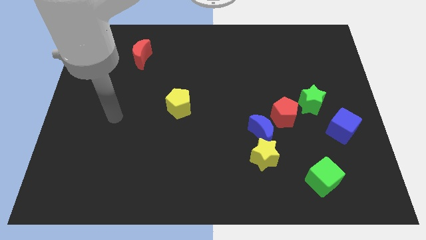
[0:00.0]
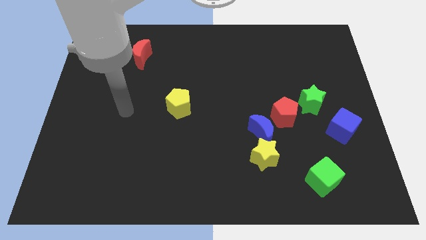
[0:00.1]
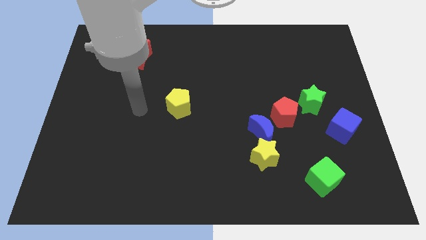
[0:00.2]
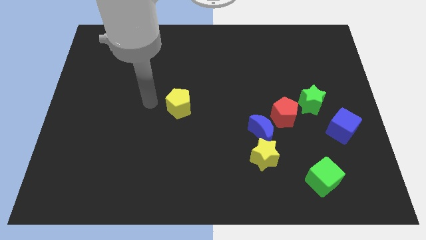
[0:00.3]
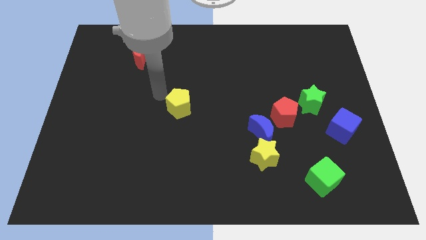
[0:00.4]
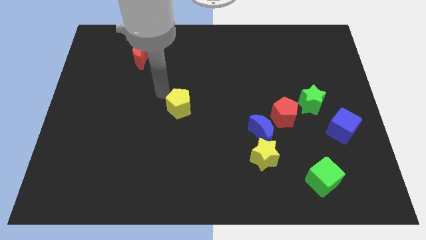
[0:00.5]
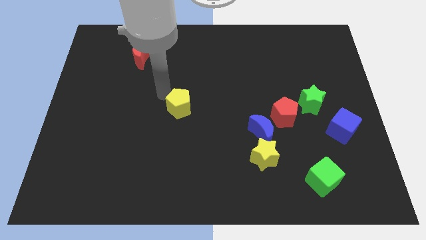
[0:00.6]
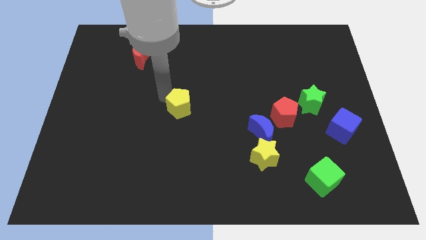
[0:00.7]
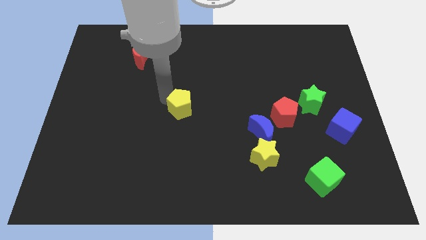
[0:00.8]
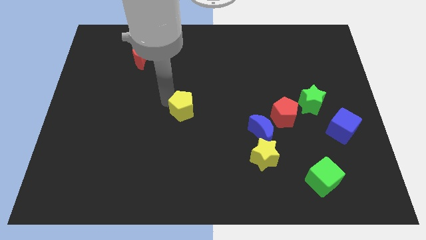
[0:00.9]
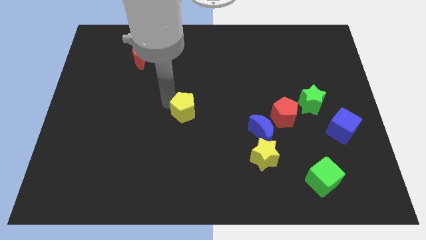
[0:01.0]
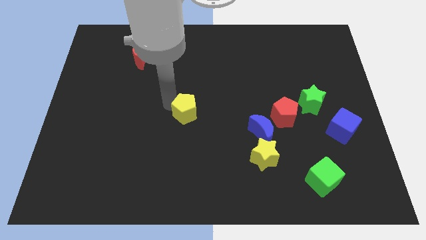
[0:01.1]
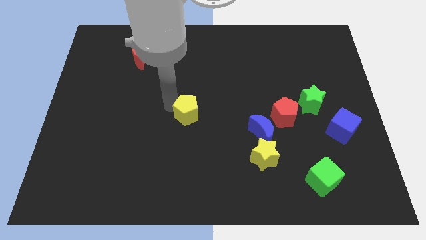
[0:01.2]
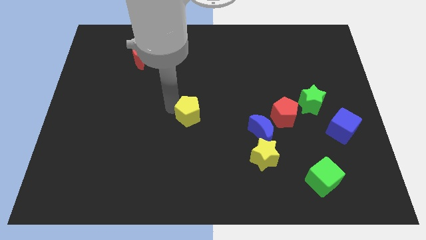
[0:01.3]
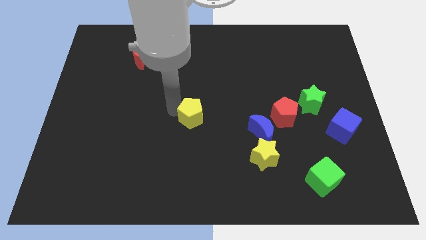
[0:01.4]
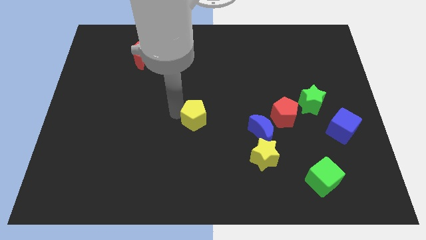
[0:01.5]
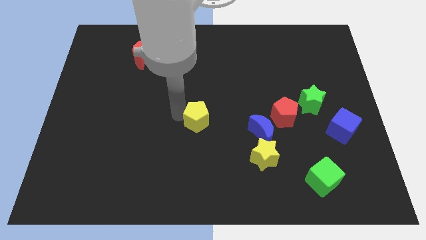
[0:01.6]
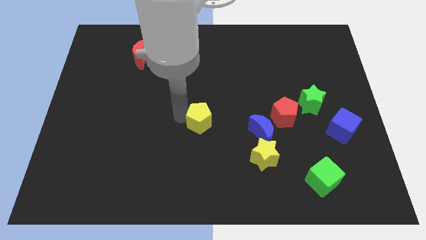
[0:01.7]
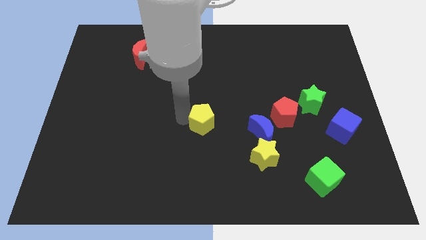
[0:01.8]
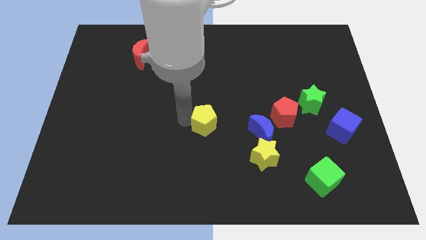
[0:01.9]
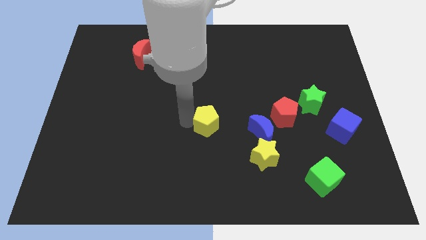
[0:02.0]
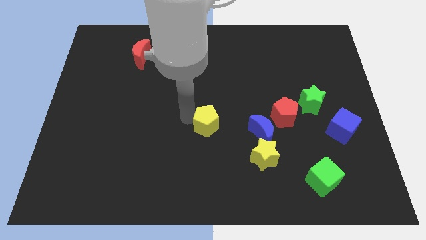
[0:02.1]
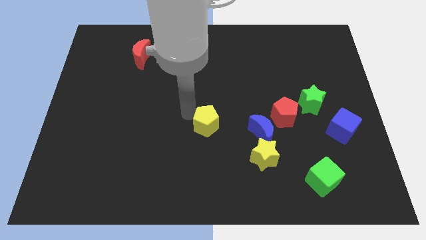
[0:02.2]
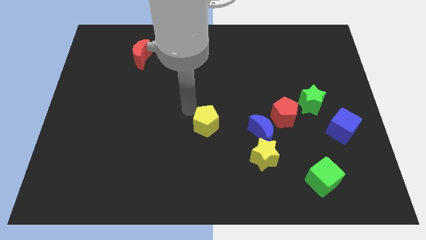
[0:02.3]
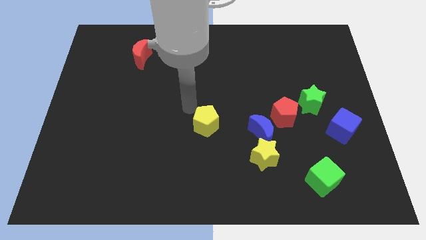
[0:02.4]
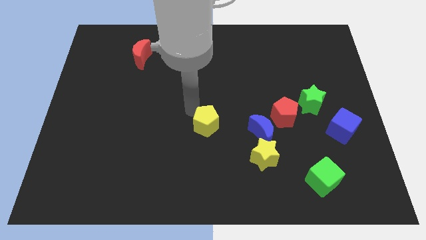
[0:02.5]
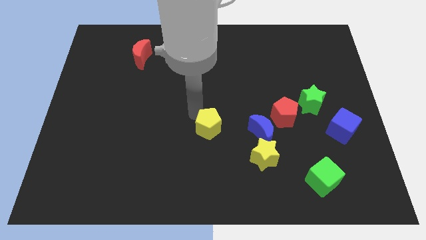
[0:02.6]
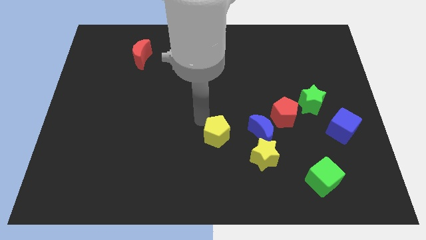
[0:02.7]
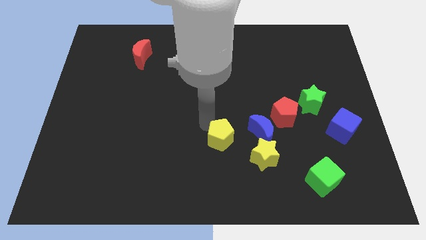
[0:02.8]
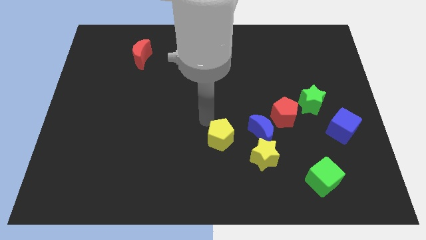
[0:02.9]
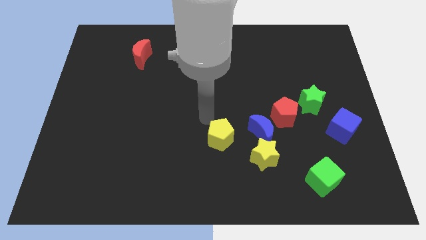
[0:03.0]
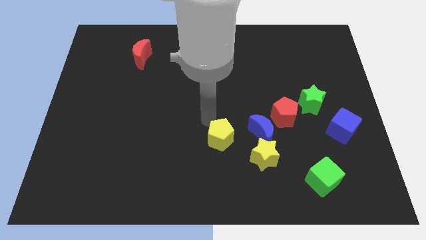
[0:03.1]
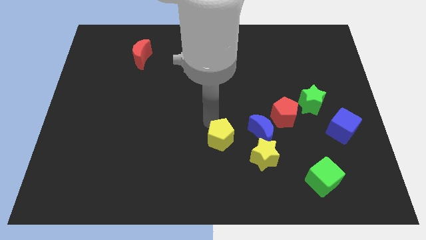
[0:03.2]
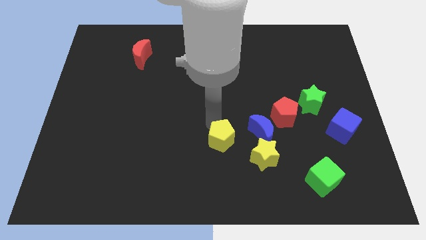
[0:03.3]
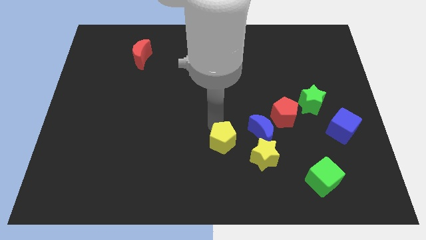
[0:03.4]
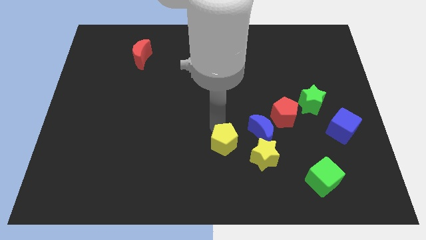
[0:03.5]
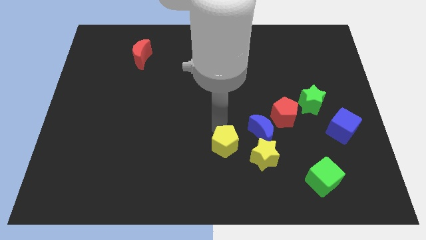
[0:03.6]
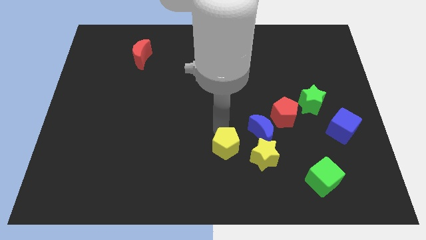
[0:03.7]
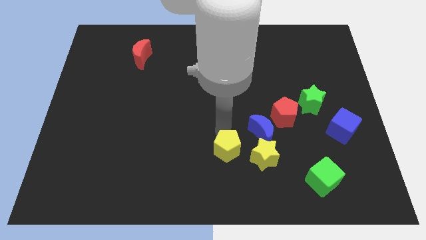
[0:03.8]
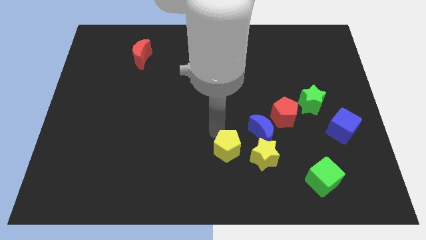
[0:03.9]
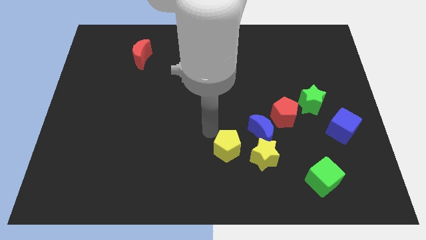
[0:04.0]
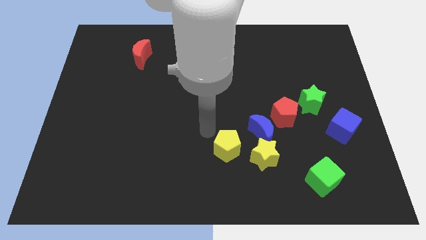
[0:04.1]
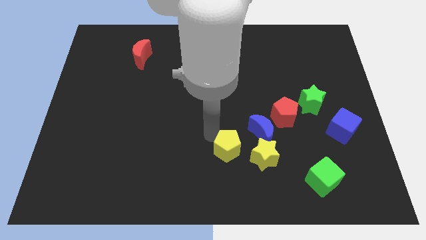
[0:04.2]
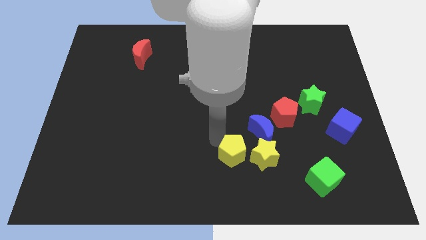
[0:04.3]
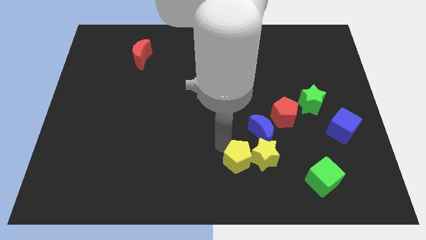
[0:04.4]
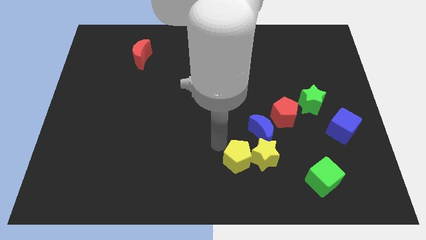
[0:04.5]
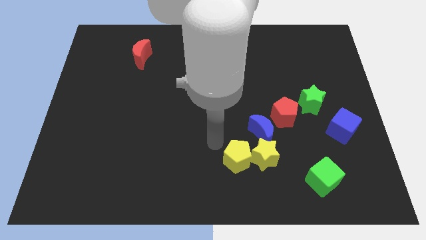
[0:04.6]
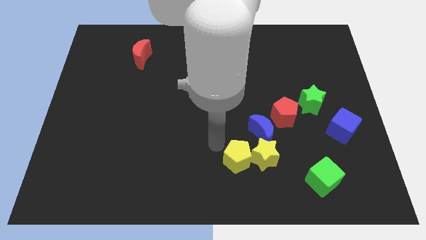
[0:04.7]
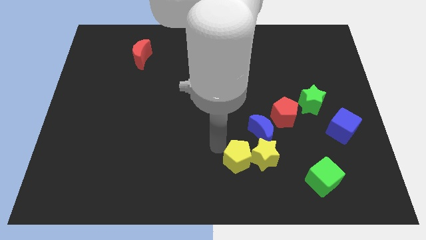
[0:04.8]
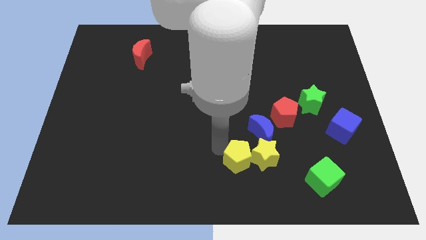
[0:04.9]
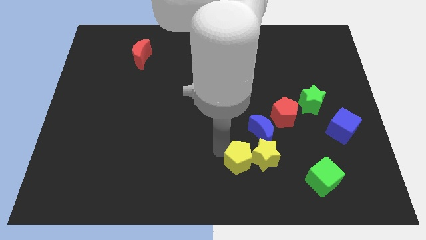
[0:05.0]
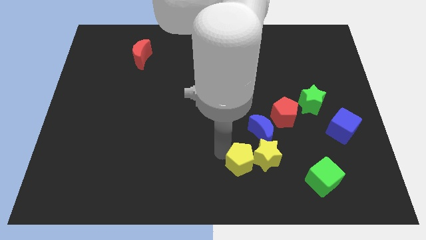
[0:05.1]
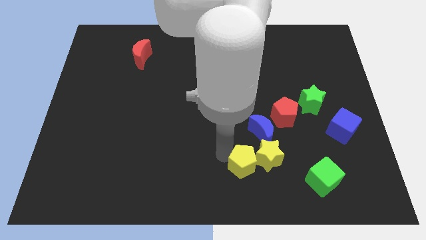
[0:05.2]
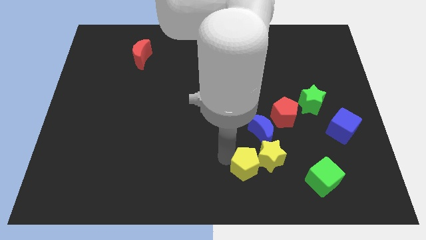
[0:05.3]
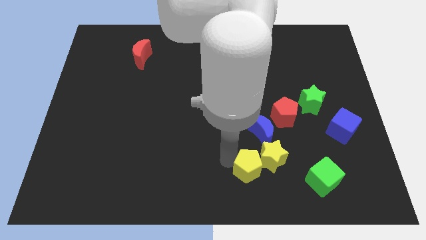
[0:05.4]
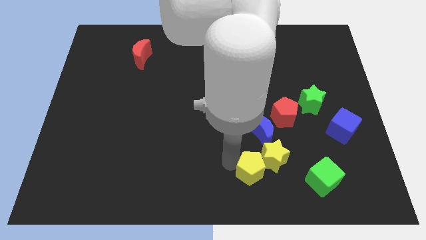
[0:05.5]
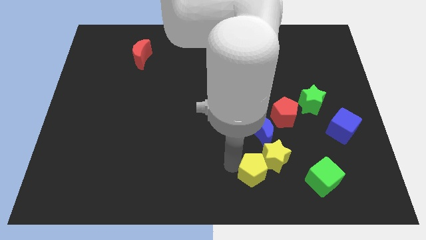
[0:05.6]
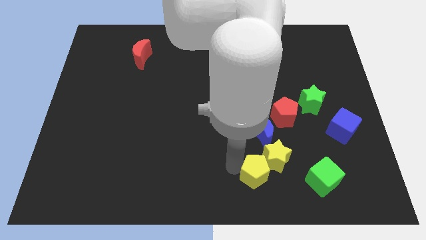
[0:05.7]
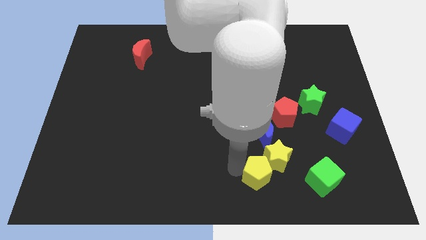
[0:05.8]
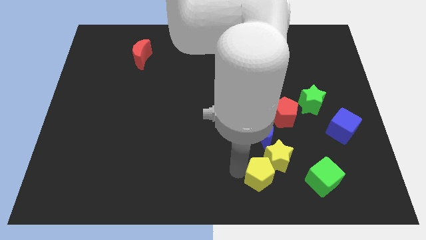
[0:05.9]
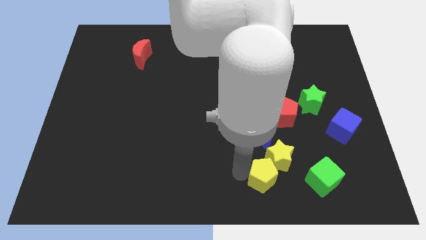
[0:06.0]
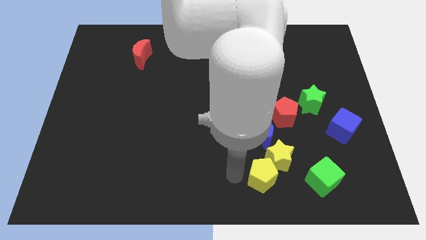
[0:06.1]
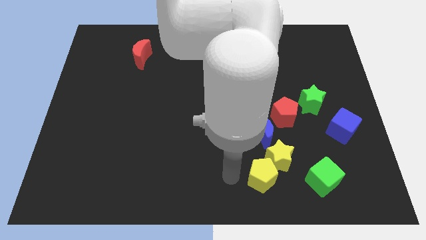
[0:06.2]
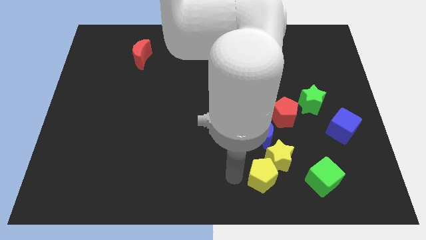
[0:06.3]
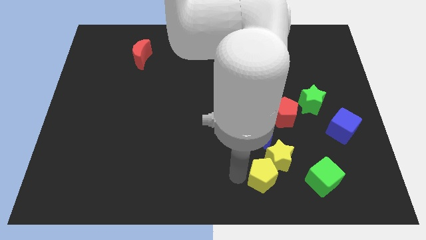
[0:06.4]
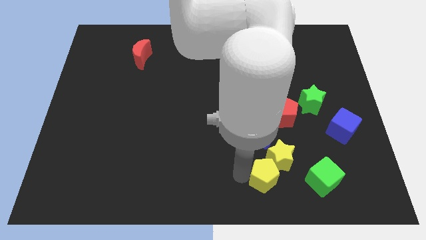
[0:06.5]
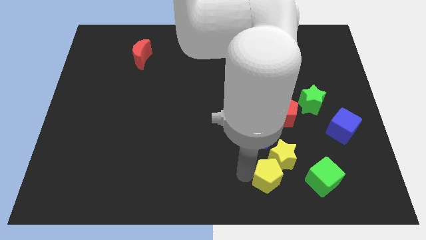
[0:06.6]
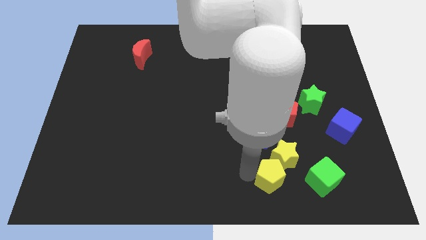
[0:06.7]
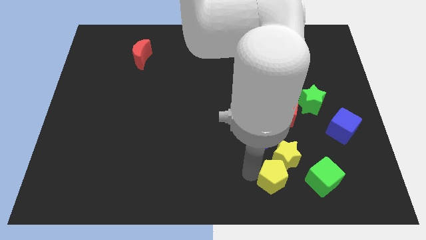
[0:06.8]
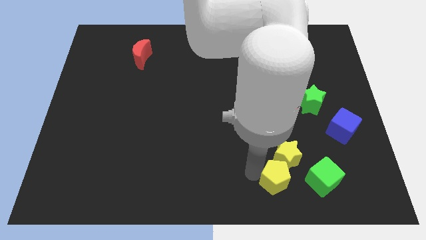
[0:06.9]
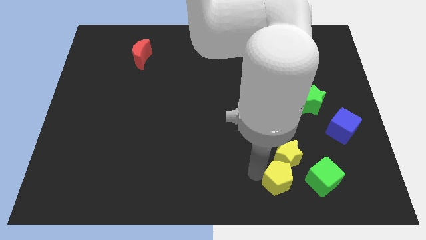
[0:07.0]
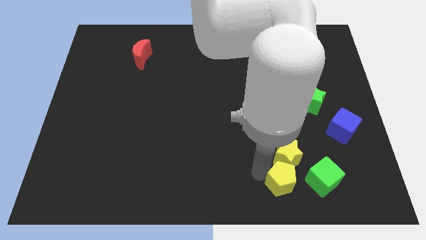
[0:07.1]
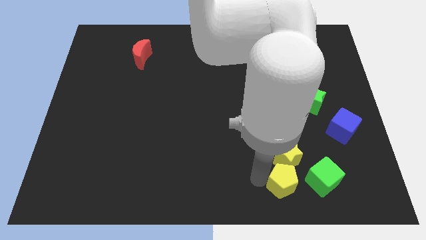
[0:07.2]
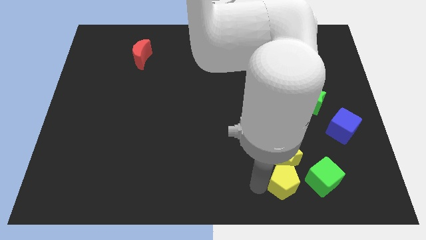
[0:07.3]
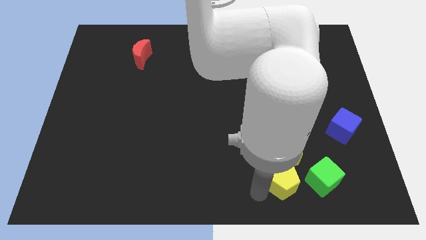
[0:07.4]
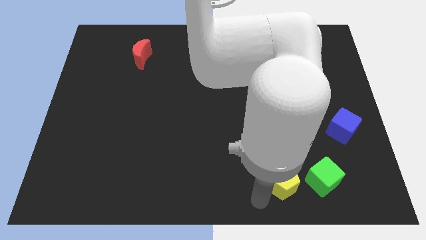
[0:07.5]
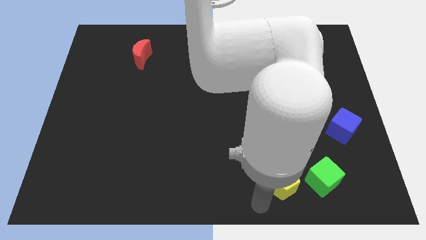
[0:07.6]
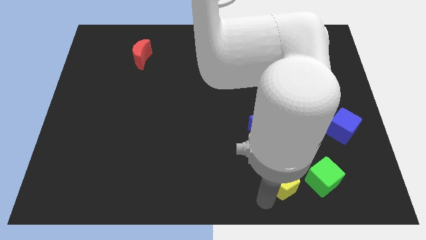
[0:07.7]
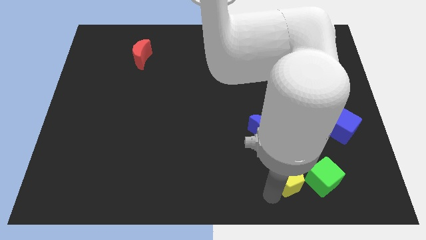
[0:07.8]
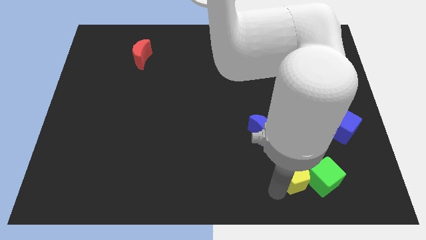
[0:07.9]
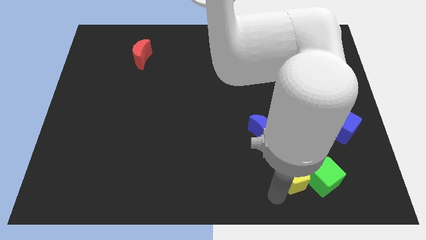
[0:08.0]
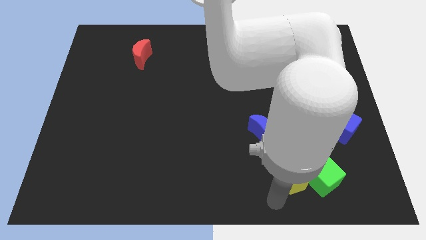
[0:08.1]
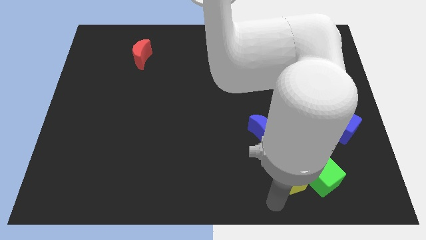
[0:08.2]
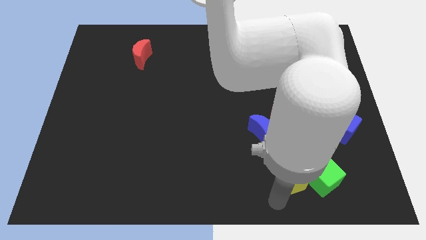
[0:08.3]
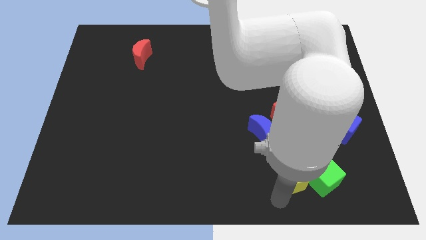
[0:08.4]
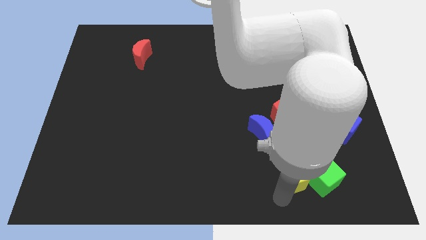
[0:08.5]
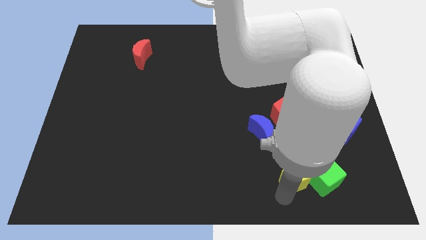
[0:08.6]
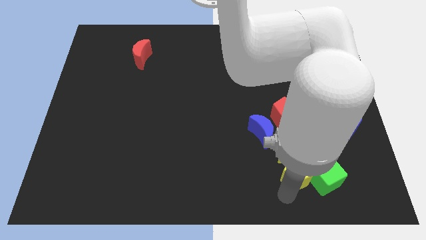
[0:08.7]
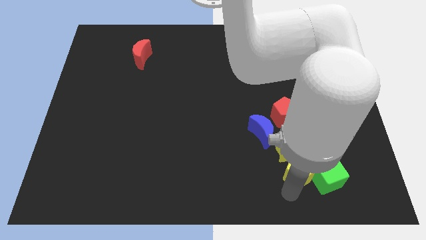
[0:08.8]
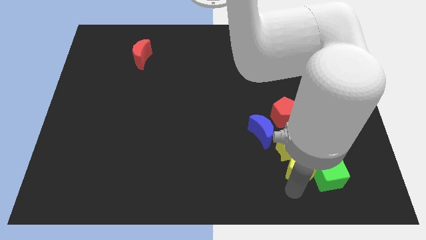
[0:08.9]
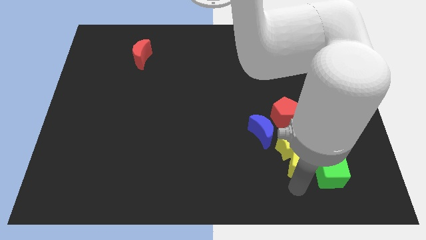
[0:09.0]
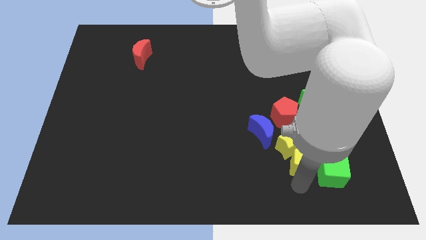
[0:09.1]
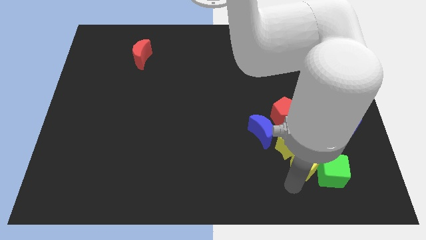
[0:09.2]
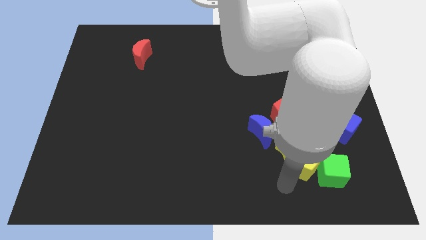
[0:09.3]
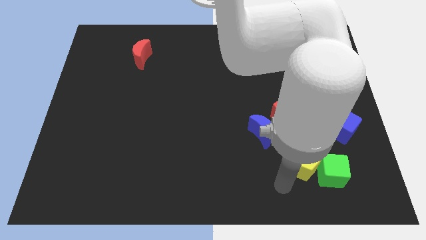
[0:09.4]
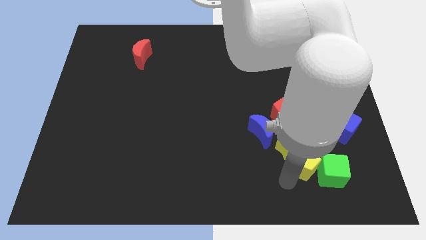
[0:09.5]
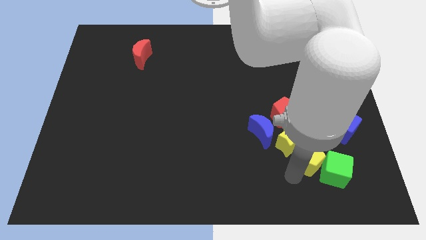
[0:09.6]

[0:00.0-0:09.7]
push the yellow pentagon to the bottom left side of the blue cube
